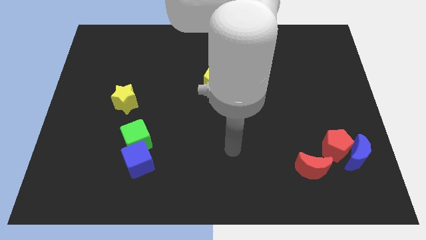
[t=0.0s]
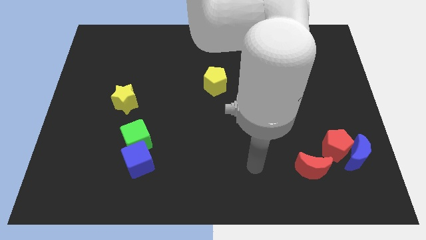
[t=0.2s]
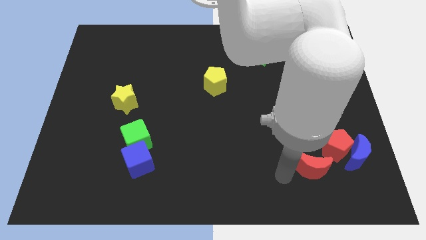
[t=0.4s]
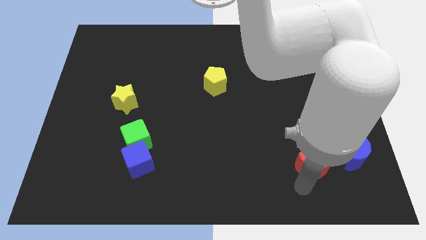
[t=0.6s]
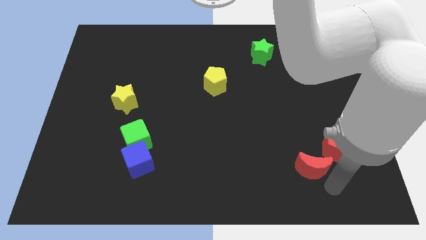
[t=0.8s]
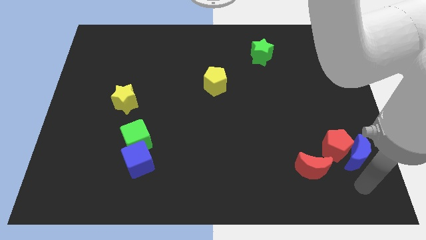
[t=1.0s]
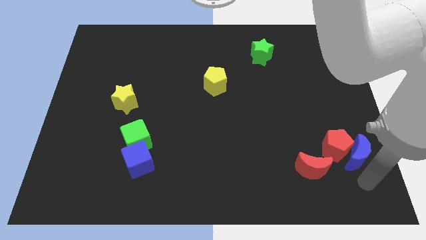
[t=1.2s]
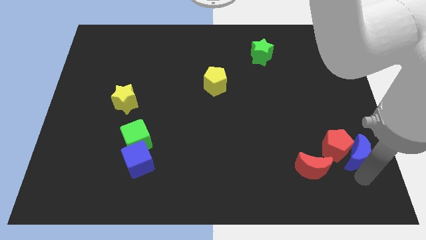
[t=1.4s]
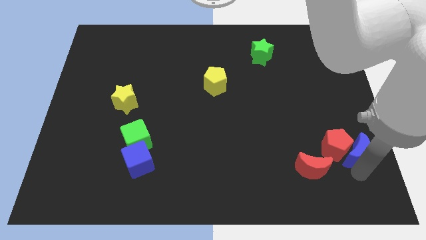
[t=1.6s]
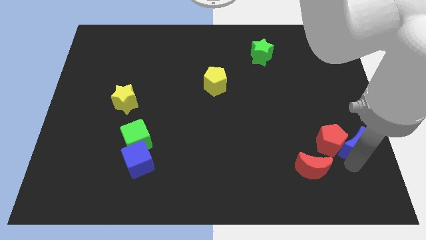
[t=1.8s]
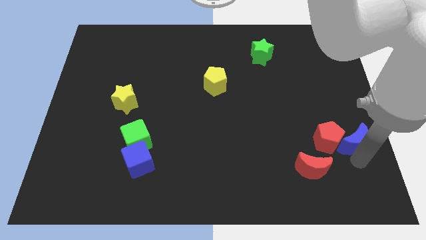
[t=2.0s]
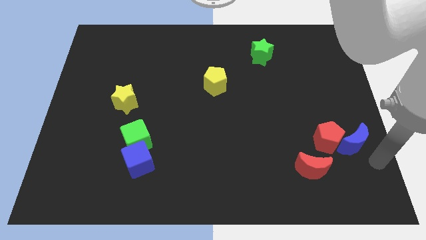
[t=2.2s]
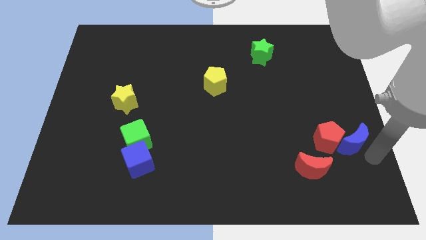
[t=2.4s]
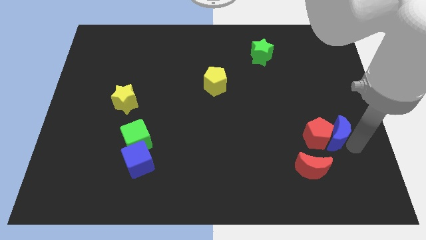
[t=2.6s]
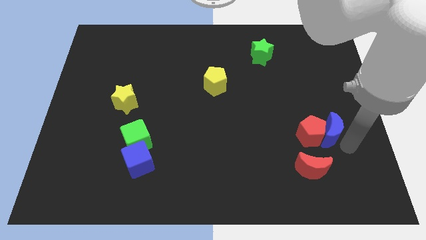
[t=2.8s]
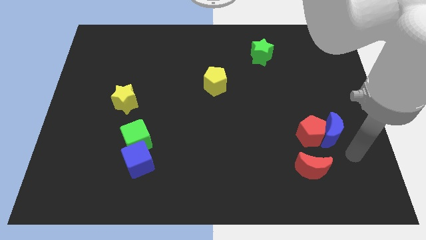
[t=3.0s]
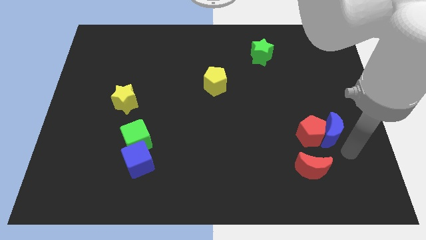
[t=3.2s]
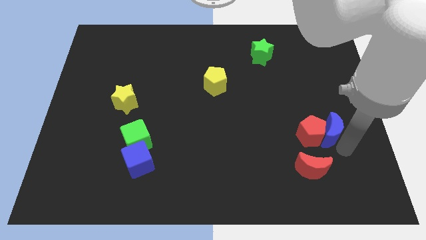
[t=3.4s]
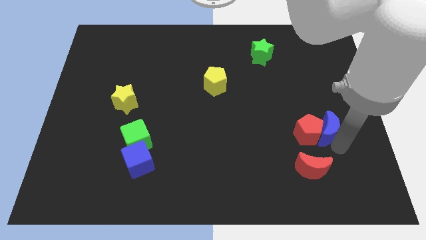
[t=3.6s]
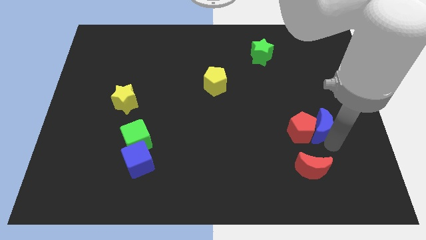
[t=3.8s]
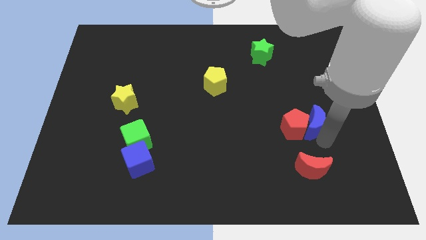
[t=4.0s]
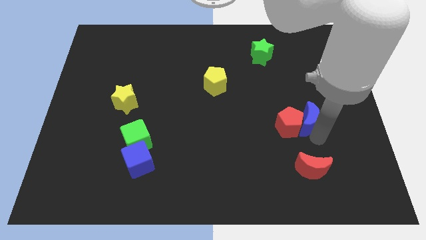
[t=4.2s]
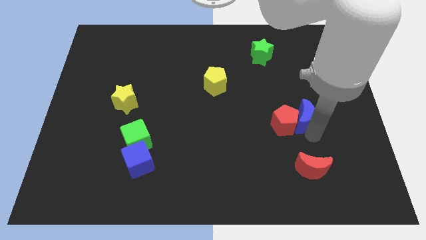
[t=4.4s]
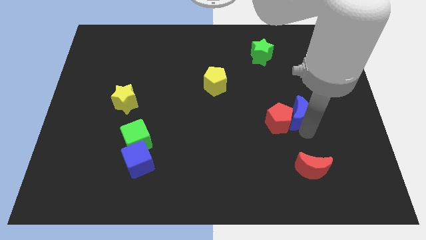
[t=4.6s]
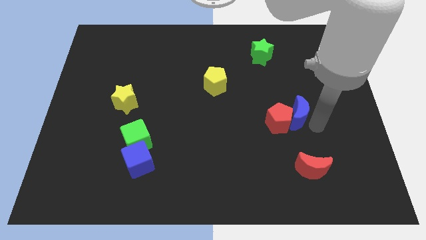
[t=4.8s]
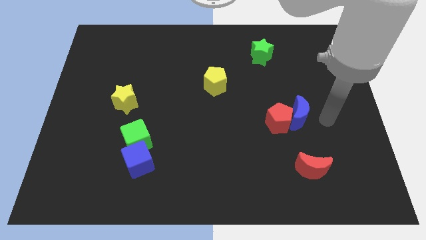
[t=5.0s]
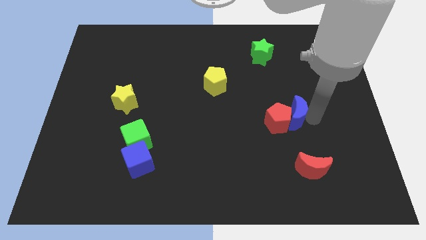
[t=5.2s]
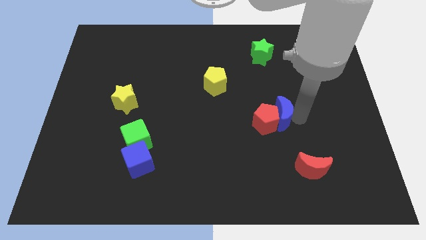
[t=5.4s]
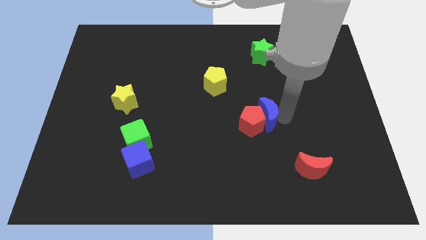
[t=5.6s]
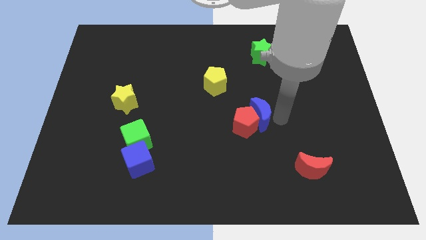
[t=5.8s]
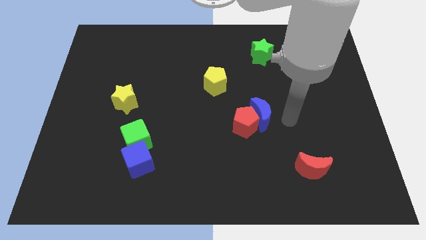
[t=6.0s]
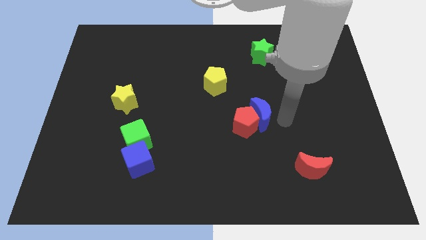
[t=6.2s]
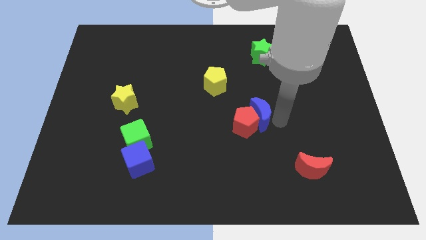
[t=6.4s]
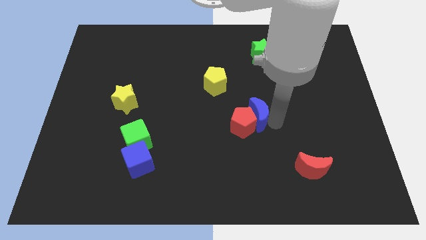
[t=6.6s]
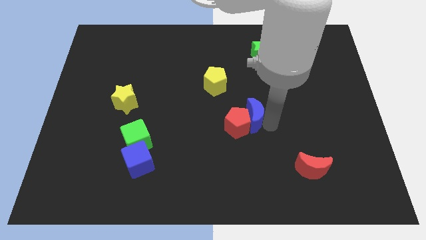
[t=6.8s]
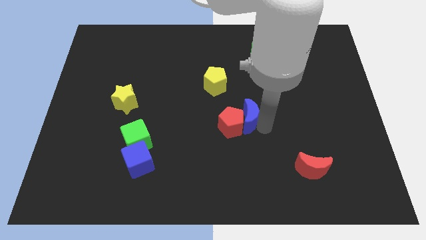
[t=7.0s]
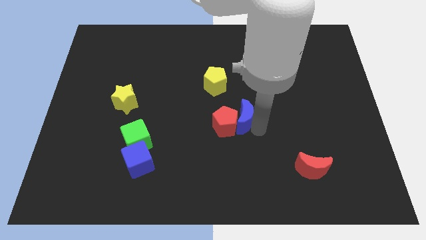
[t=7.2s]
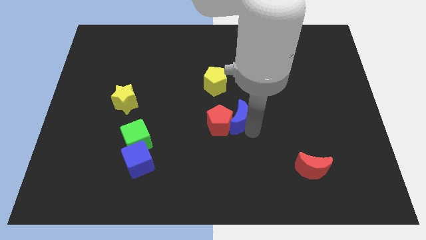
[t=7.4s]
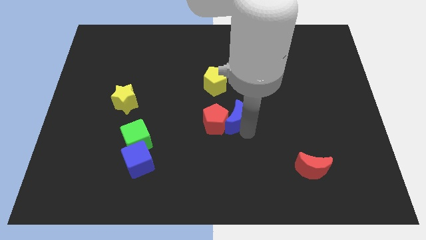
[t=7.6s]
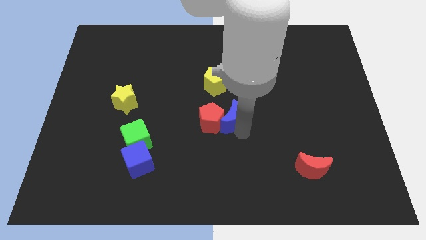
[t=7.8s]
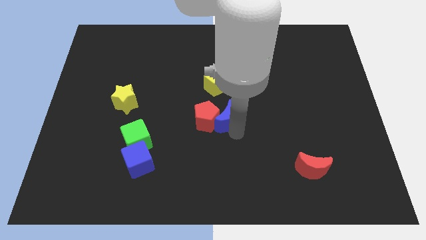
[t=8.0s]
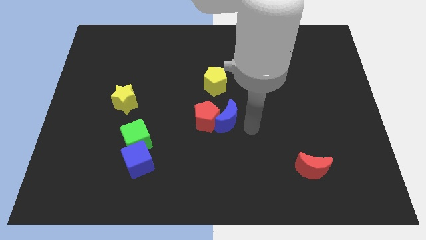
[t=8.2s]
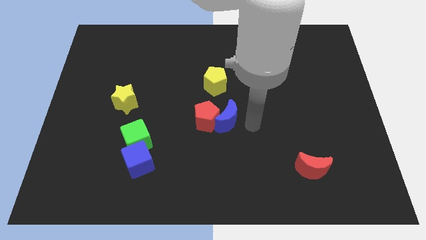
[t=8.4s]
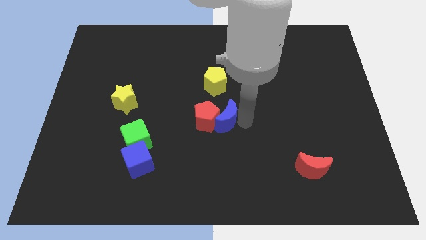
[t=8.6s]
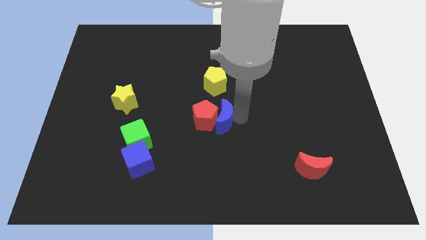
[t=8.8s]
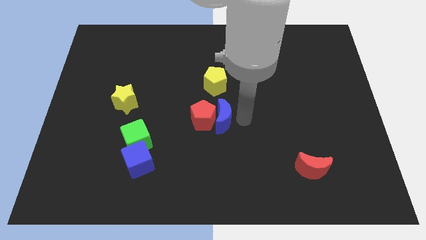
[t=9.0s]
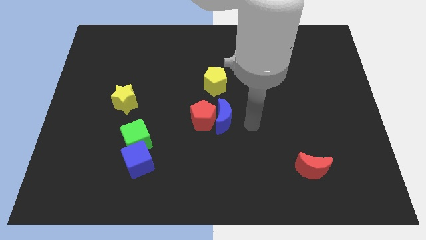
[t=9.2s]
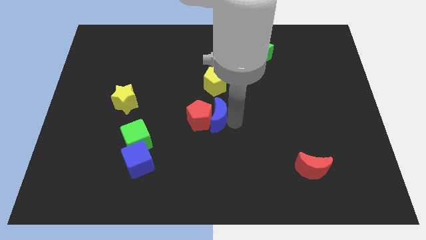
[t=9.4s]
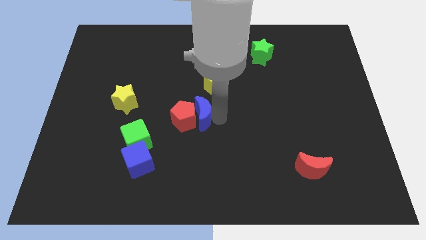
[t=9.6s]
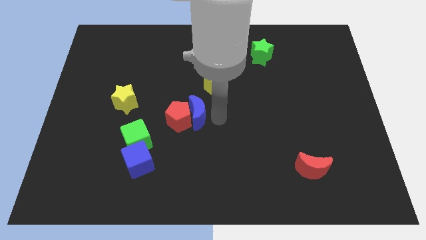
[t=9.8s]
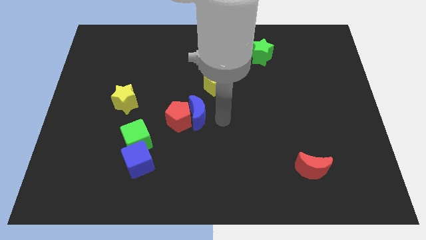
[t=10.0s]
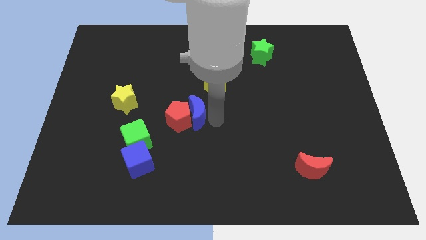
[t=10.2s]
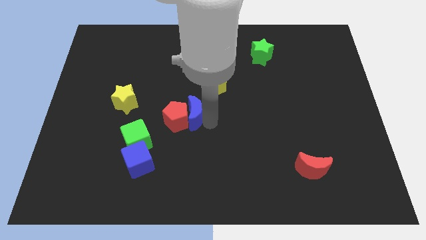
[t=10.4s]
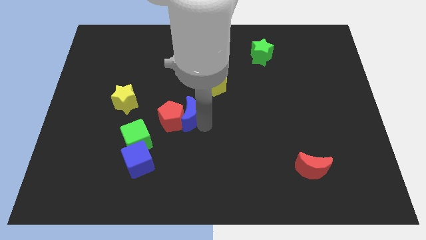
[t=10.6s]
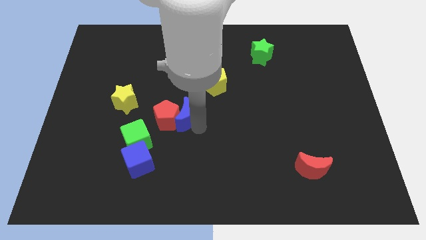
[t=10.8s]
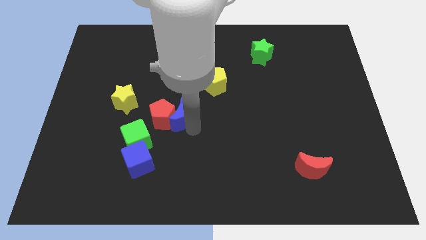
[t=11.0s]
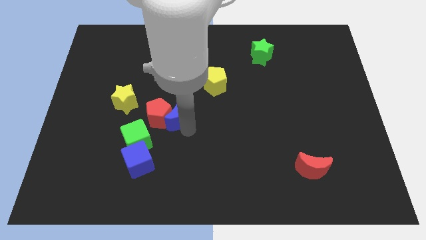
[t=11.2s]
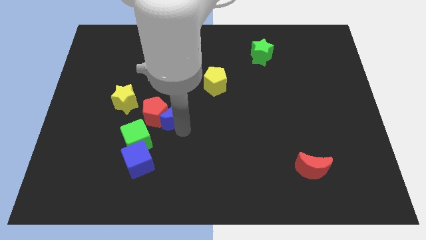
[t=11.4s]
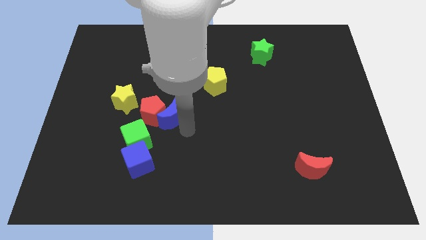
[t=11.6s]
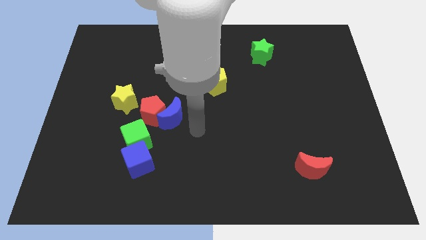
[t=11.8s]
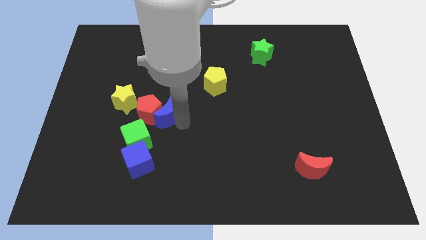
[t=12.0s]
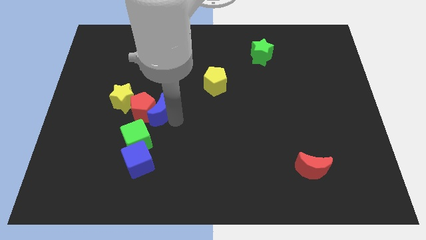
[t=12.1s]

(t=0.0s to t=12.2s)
put the blue moon to the top of the green cube

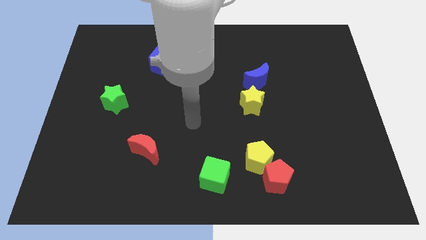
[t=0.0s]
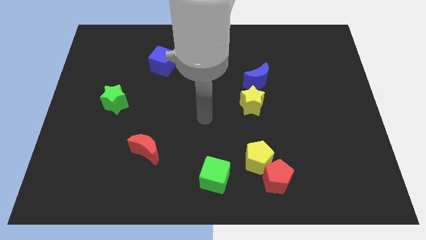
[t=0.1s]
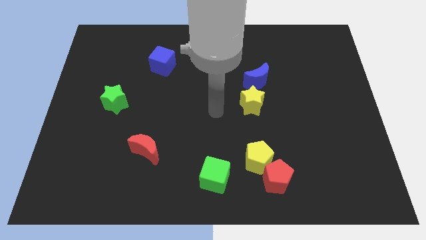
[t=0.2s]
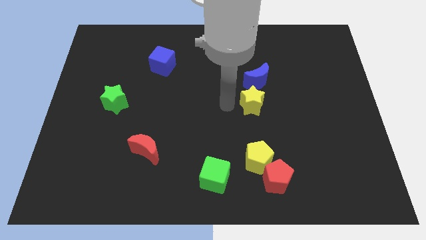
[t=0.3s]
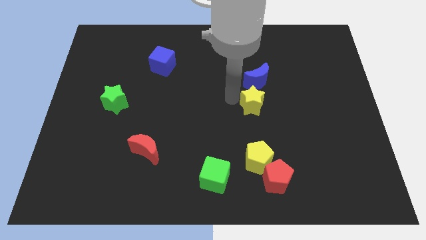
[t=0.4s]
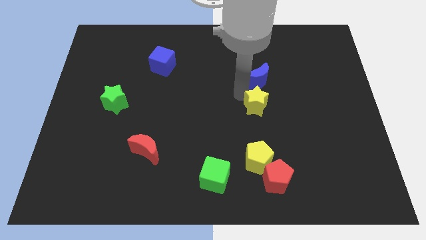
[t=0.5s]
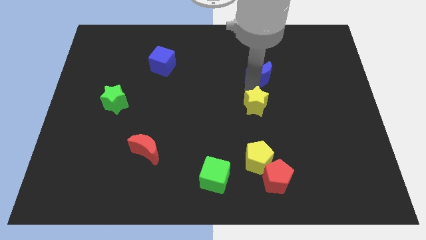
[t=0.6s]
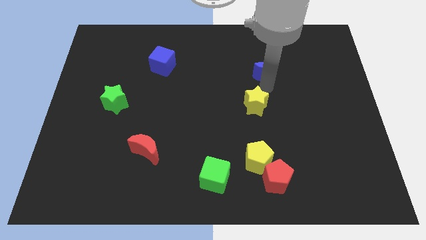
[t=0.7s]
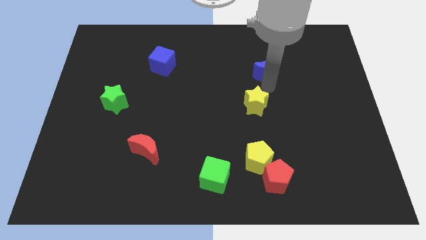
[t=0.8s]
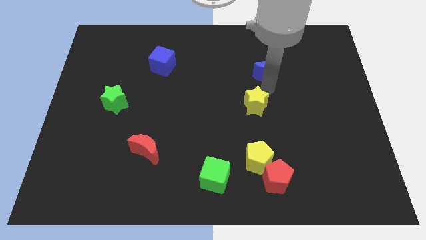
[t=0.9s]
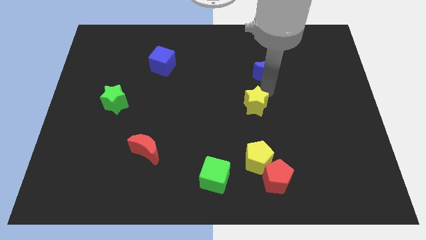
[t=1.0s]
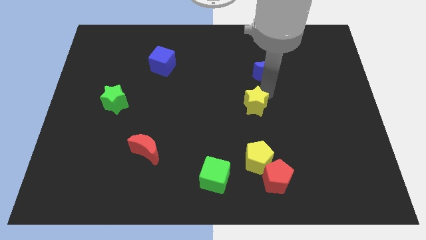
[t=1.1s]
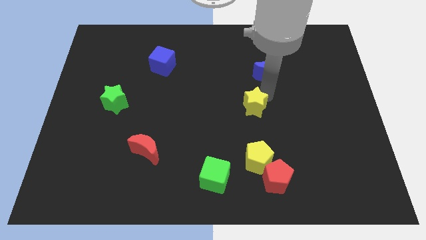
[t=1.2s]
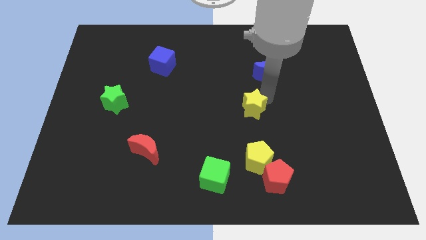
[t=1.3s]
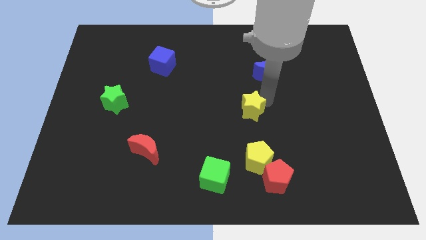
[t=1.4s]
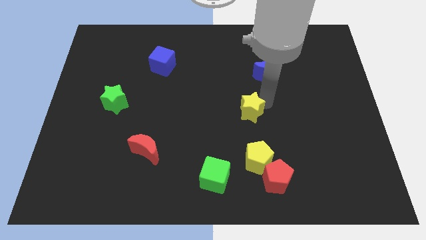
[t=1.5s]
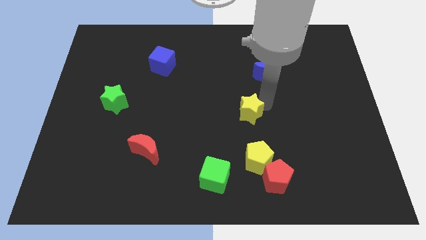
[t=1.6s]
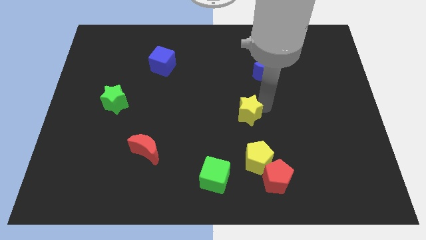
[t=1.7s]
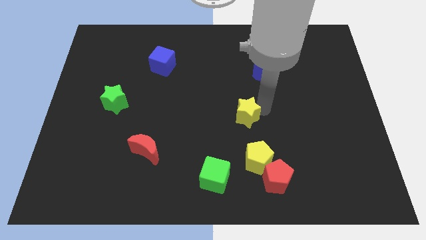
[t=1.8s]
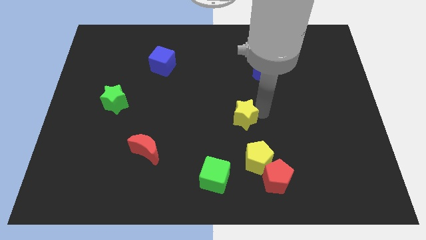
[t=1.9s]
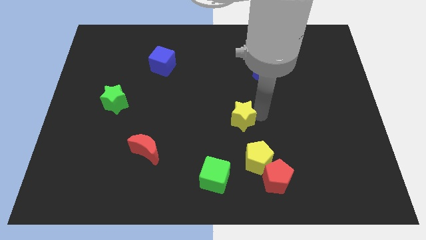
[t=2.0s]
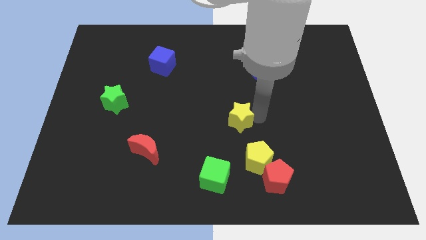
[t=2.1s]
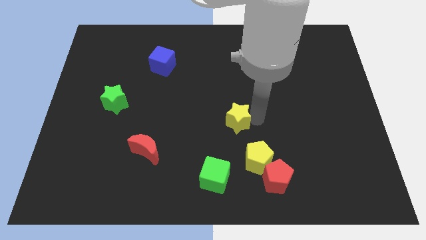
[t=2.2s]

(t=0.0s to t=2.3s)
slide the yellow star to the top left side of the yellow pentagon
